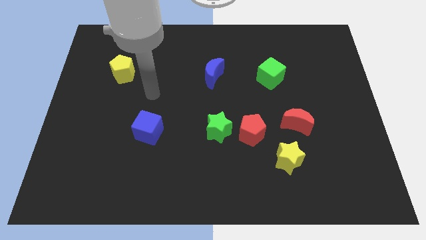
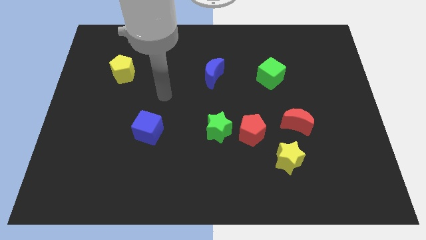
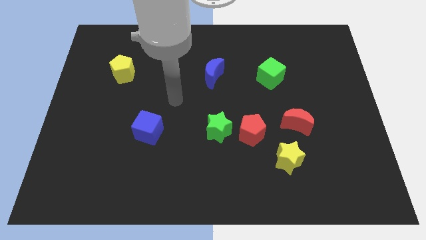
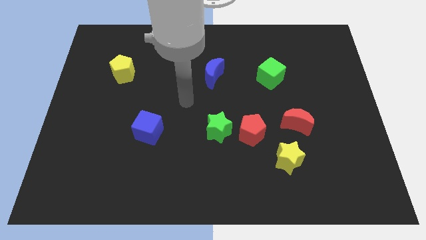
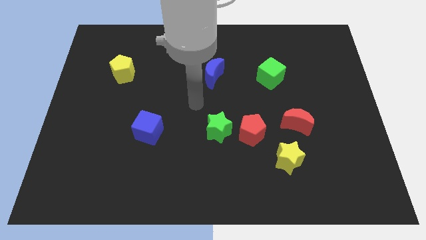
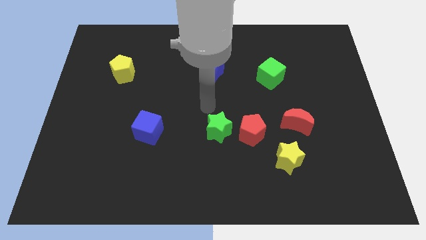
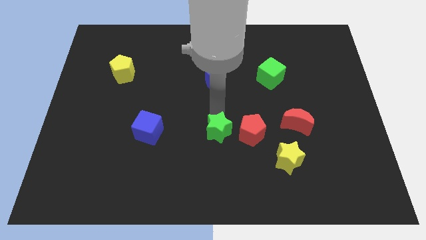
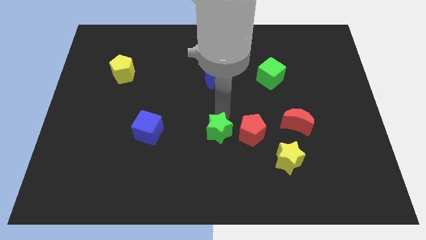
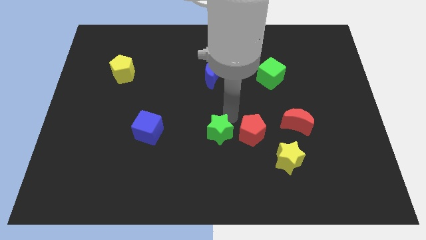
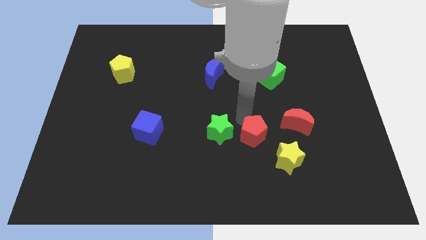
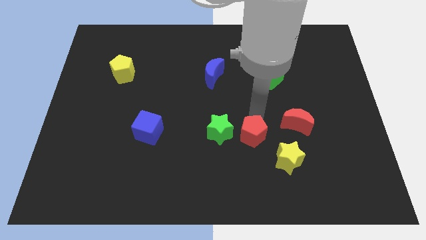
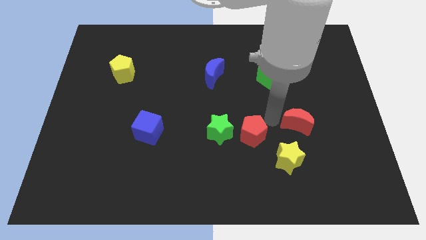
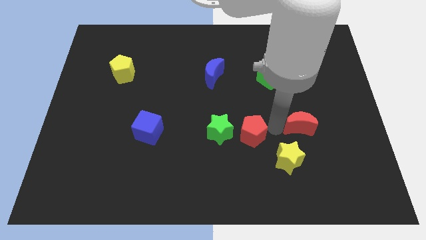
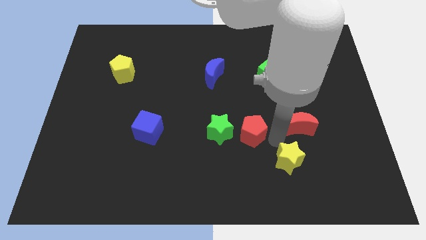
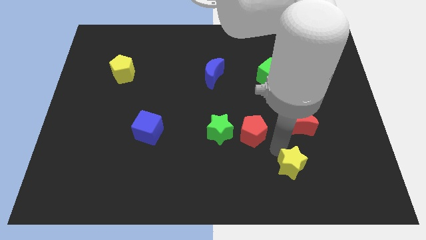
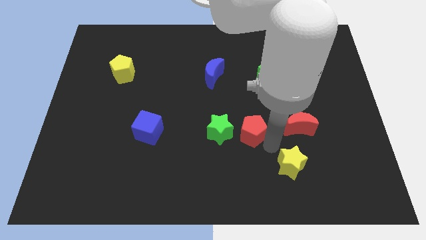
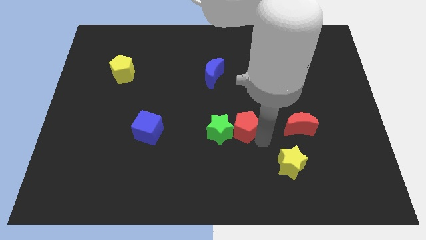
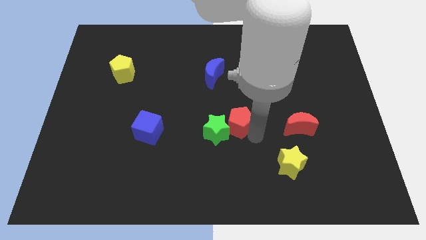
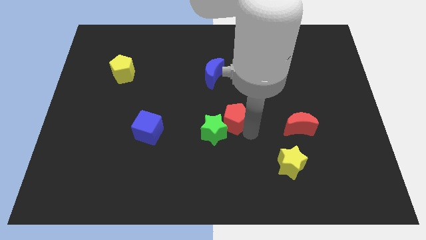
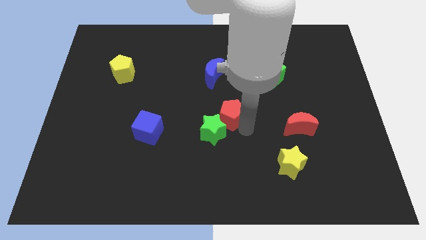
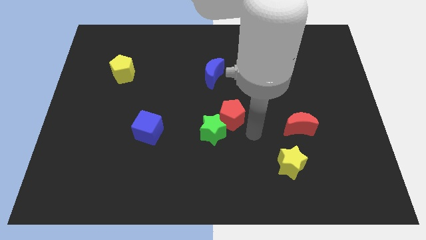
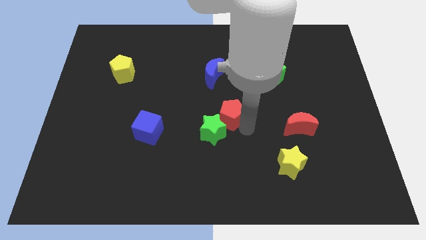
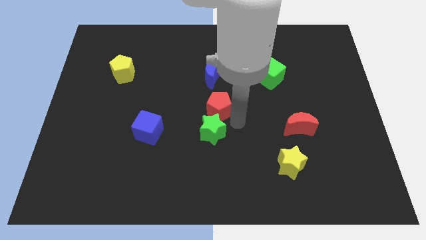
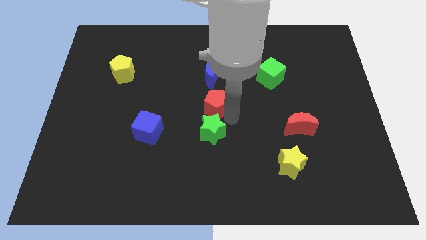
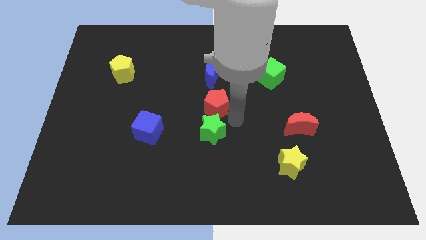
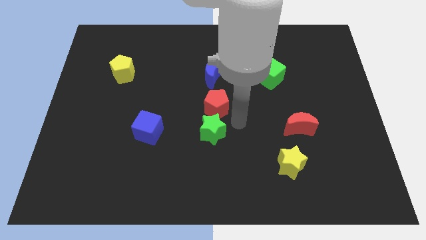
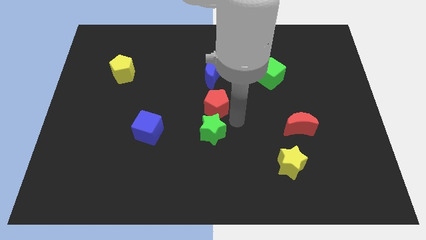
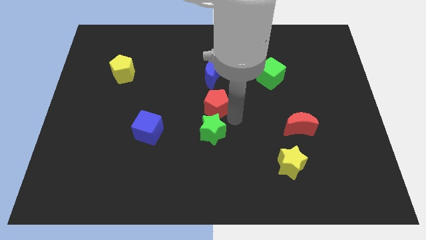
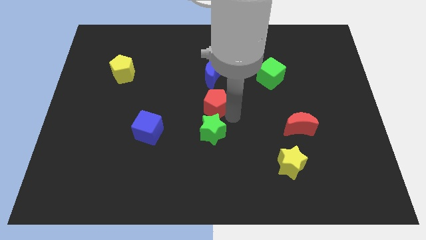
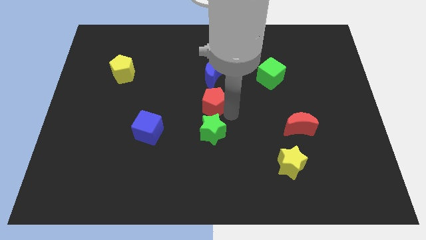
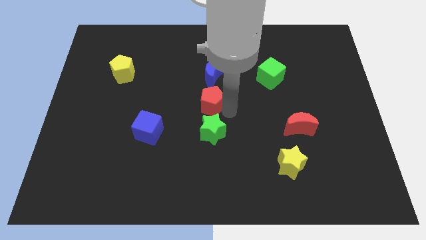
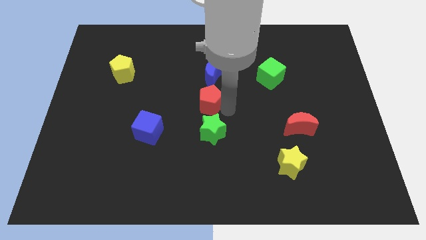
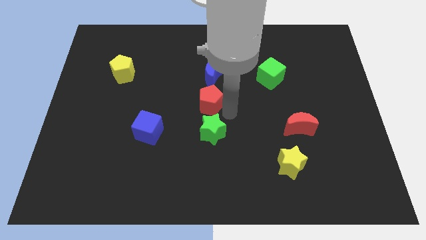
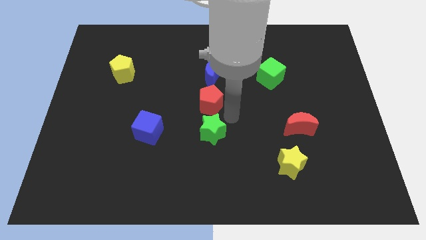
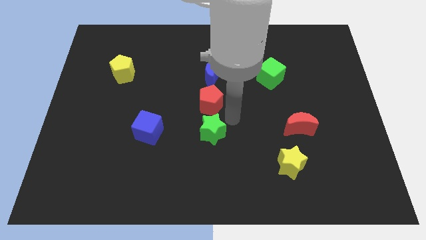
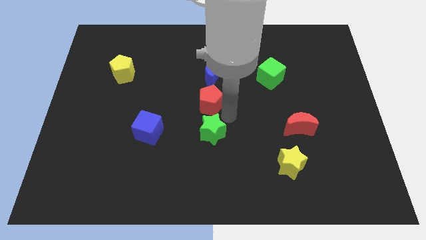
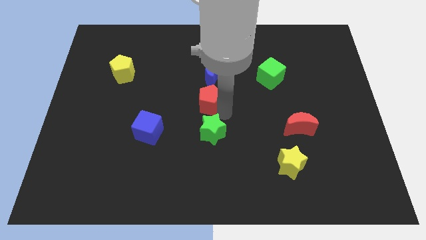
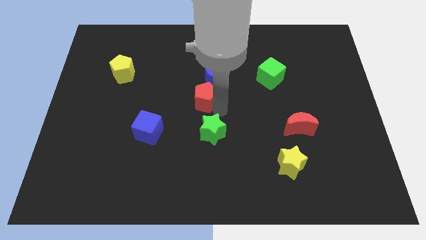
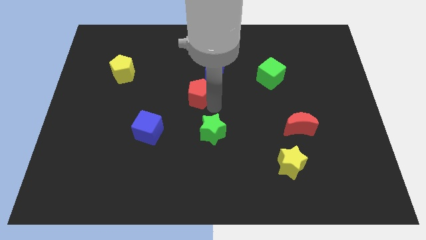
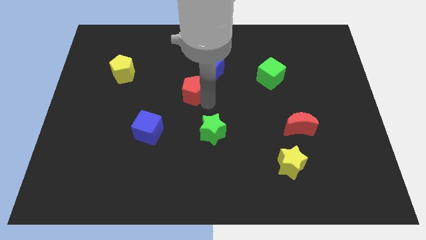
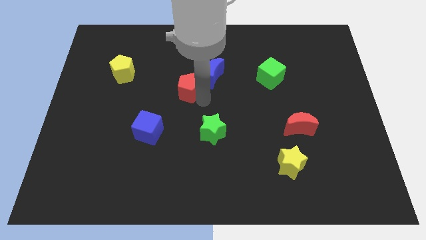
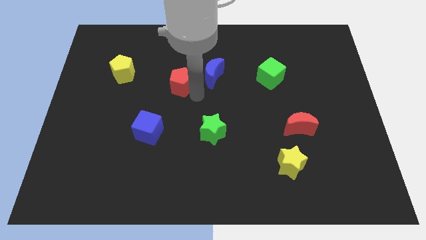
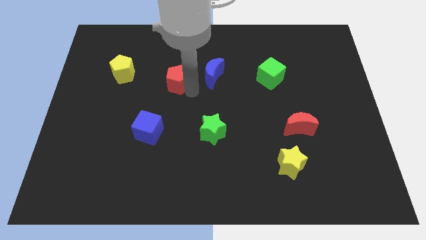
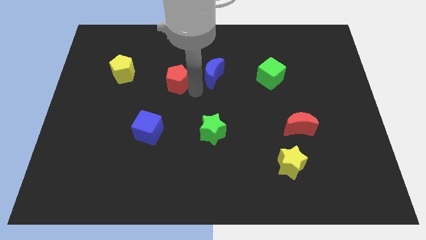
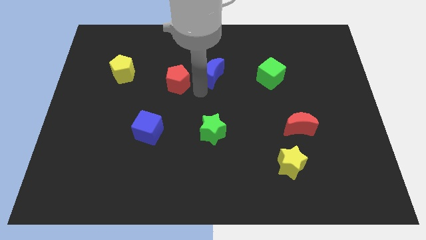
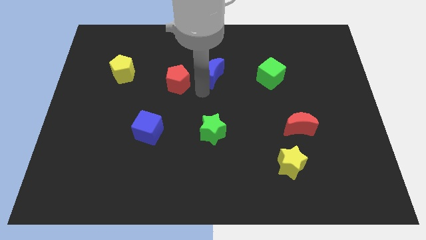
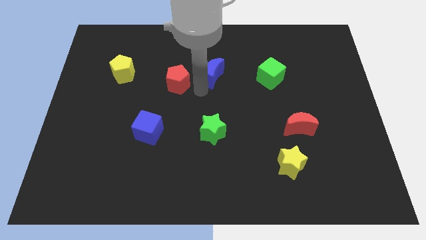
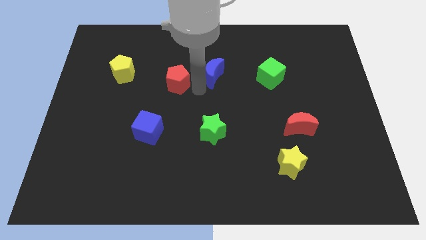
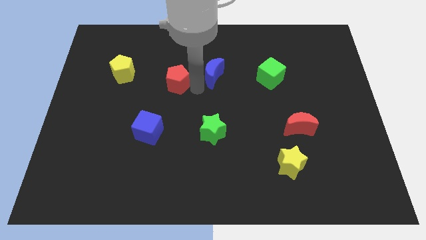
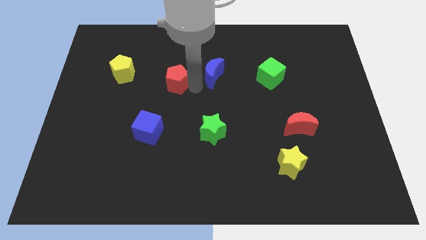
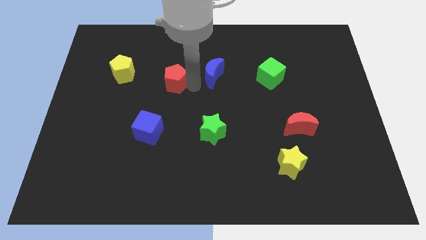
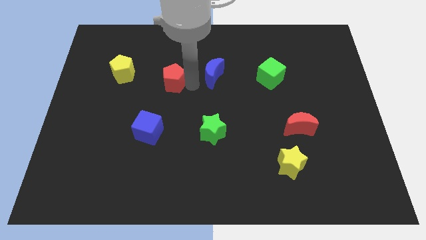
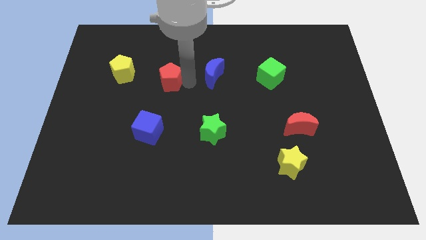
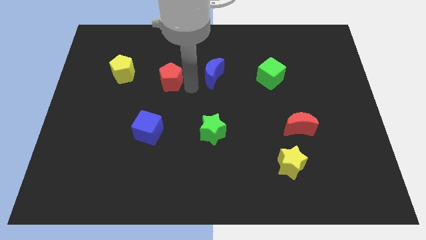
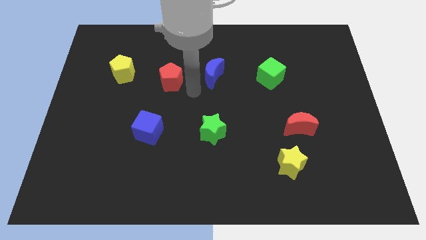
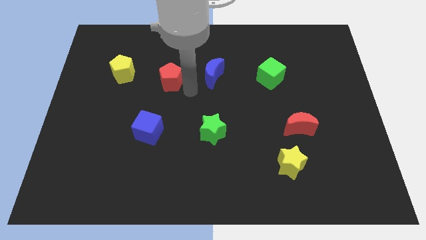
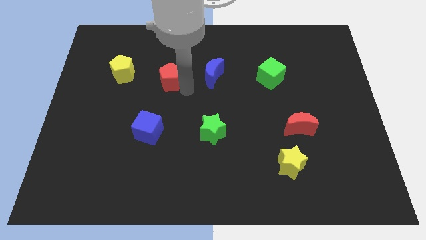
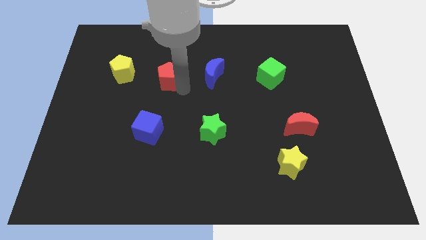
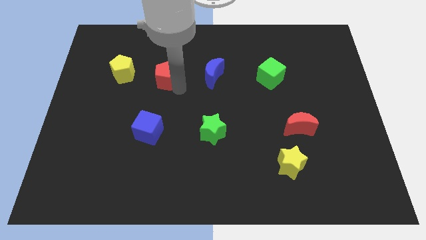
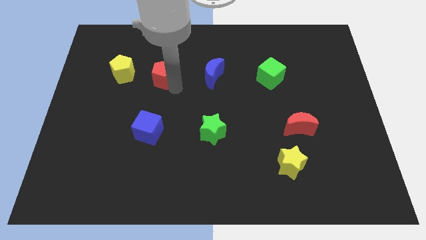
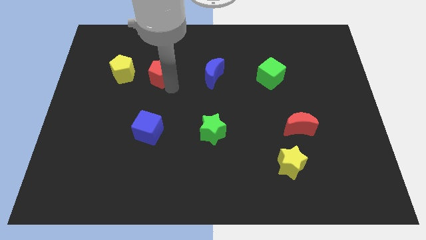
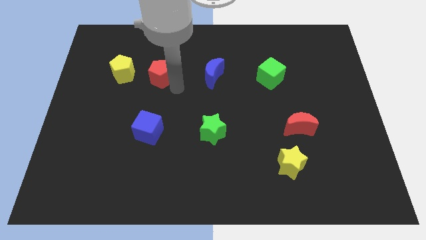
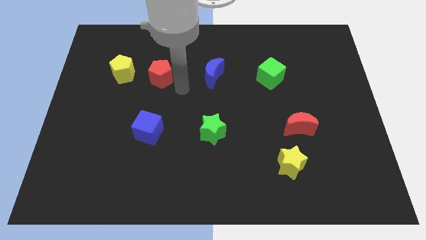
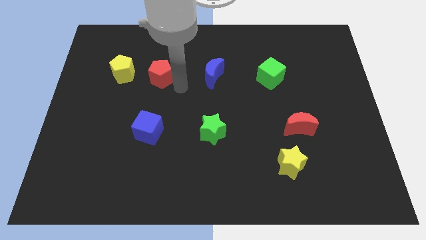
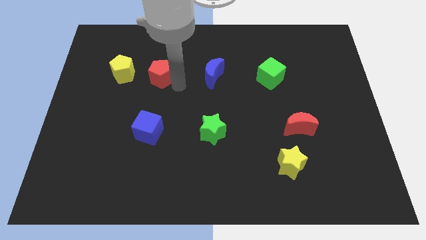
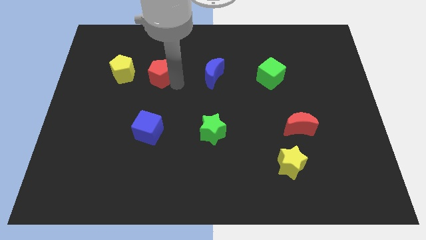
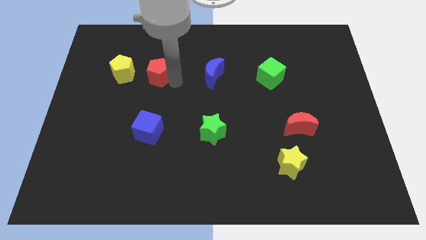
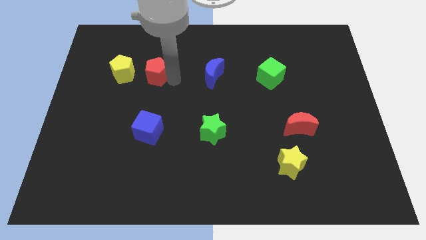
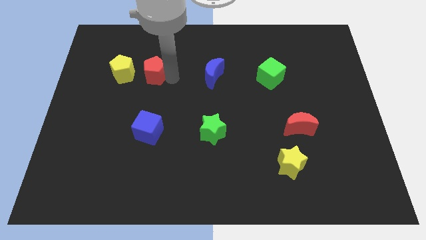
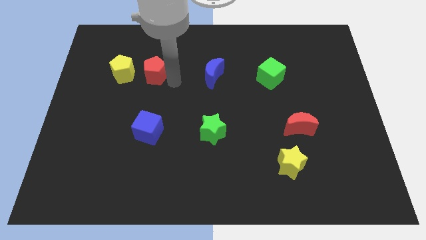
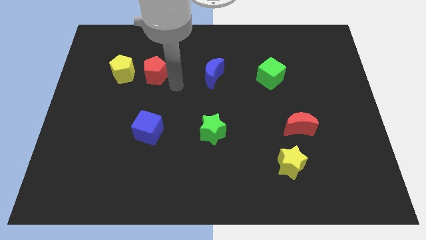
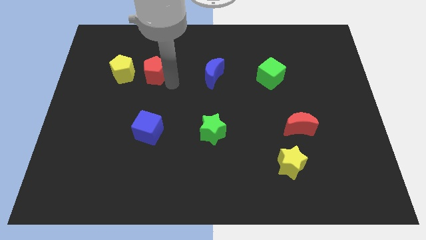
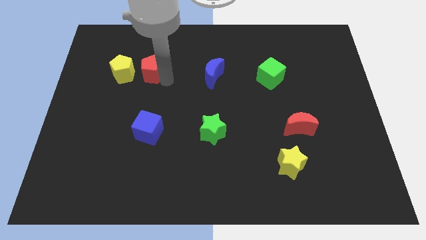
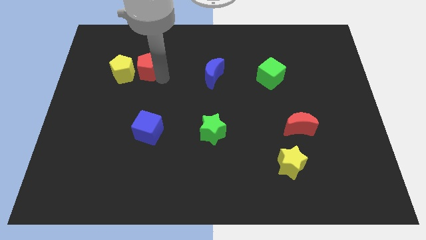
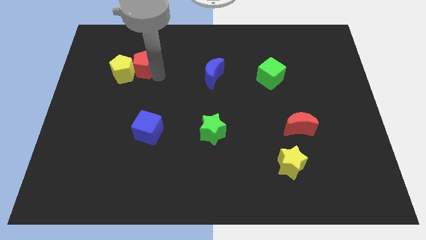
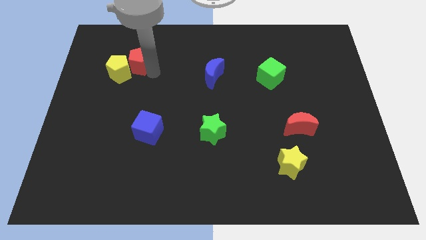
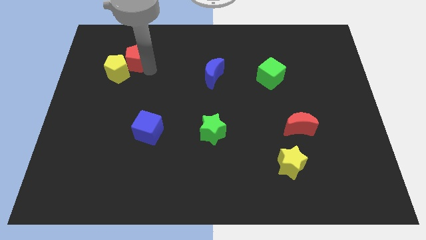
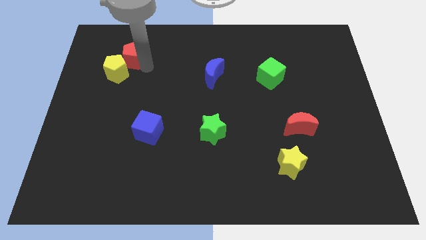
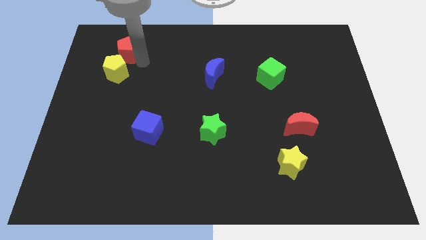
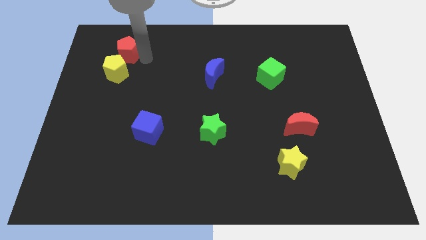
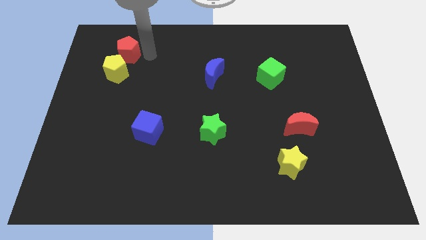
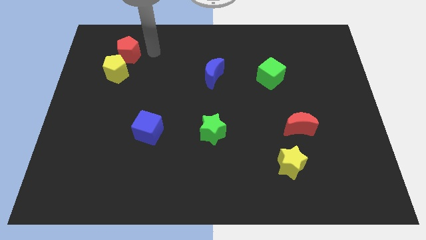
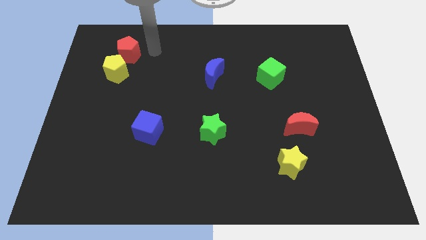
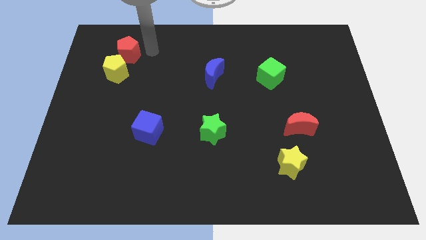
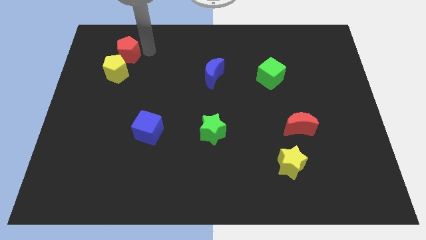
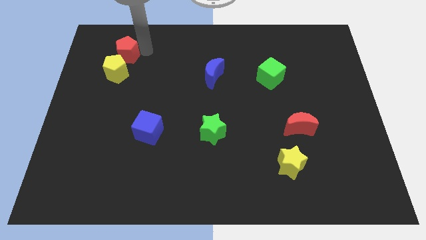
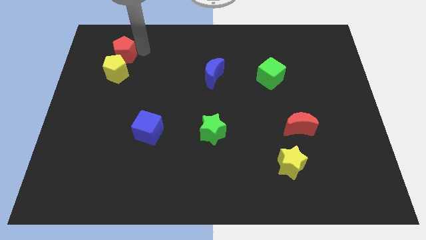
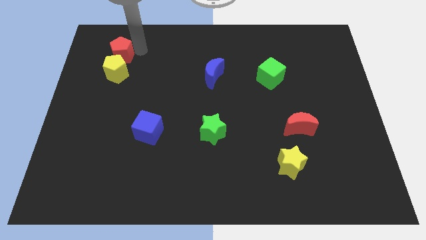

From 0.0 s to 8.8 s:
slide the red pentagon to the top left side of the yellow pentagon
